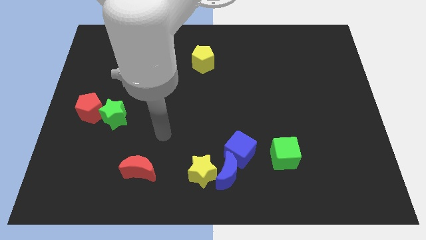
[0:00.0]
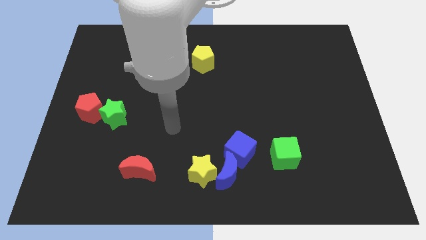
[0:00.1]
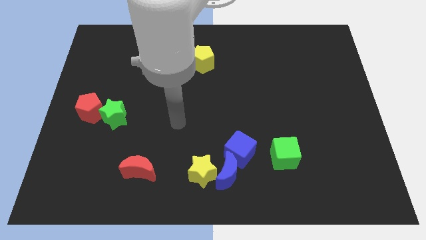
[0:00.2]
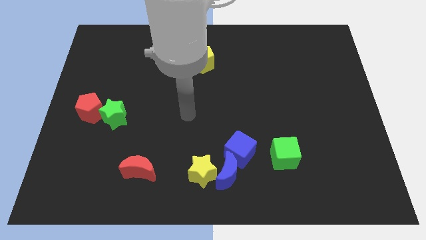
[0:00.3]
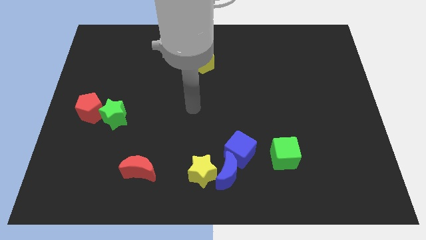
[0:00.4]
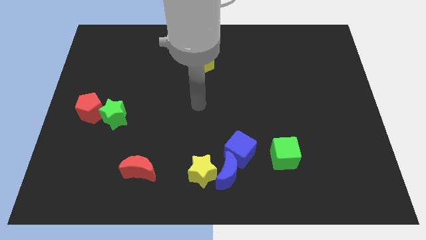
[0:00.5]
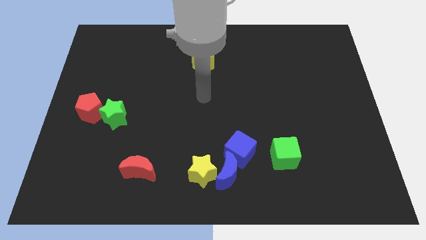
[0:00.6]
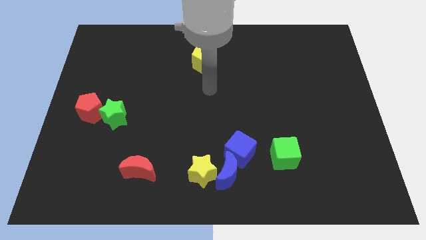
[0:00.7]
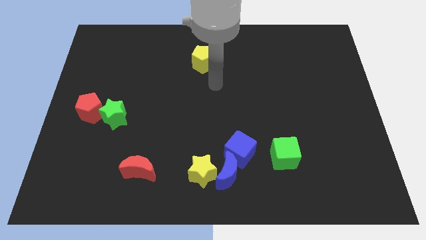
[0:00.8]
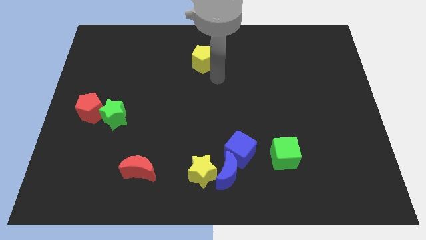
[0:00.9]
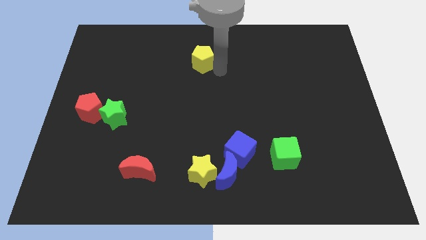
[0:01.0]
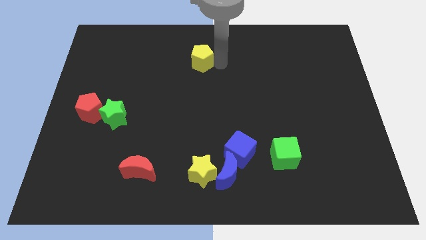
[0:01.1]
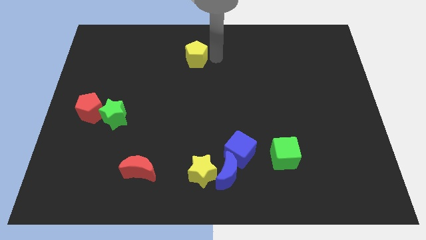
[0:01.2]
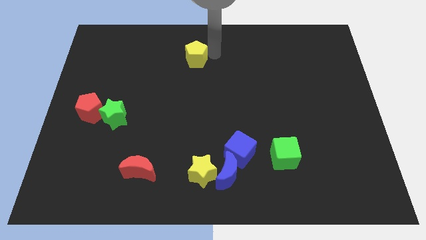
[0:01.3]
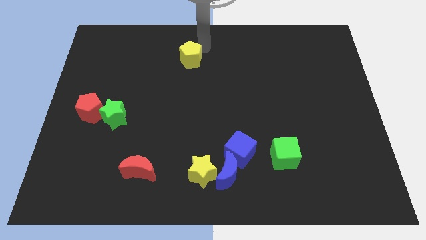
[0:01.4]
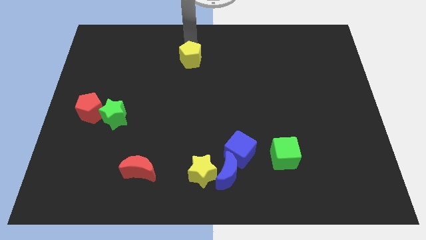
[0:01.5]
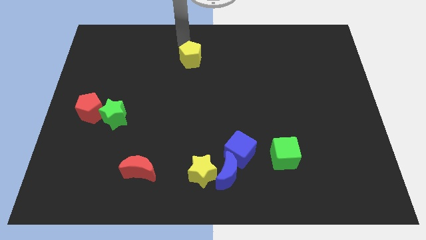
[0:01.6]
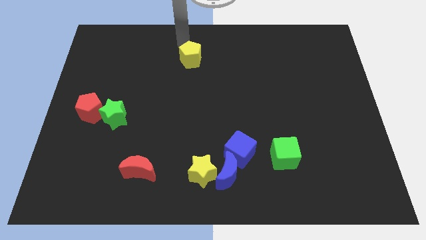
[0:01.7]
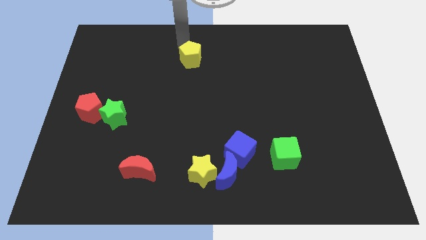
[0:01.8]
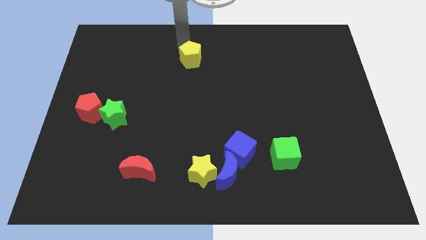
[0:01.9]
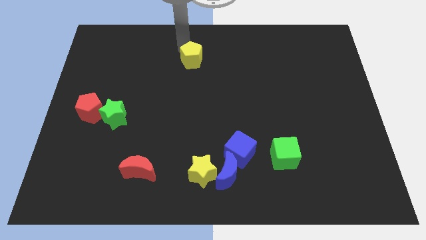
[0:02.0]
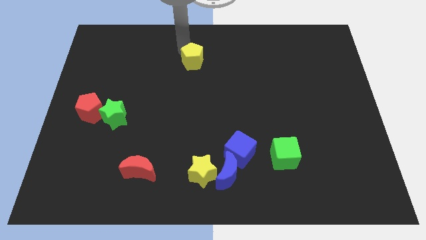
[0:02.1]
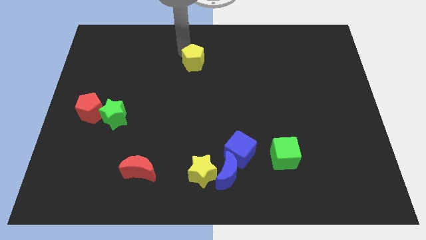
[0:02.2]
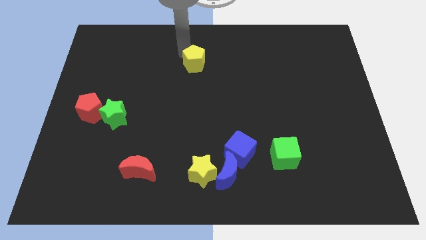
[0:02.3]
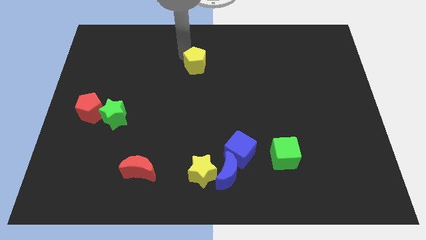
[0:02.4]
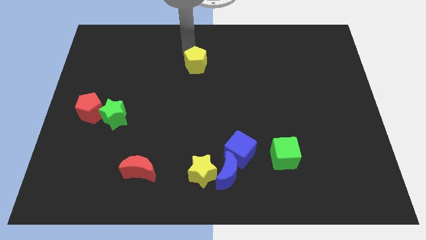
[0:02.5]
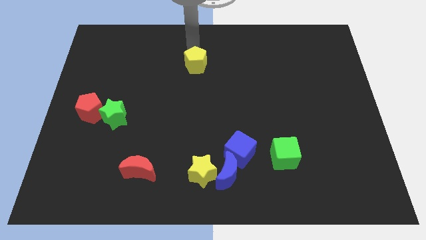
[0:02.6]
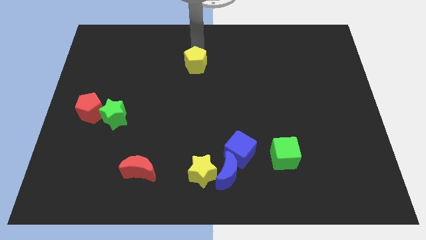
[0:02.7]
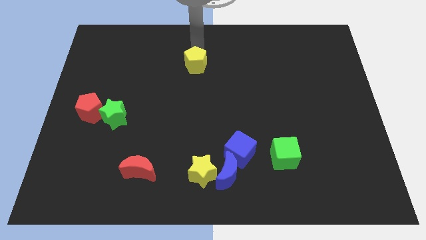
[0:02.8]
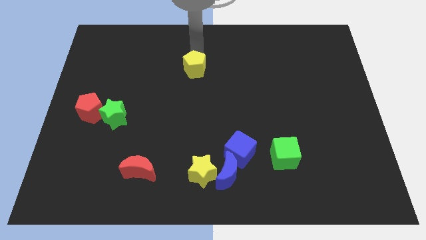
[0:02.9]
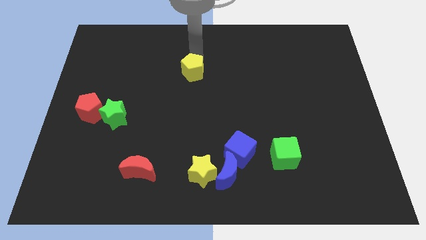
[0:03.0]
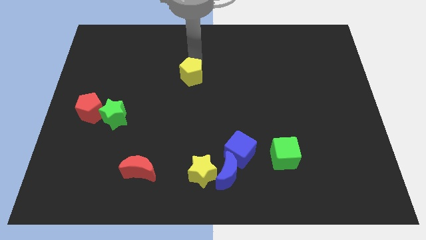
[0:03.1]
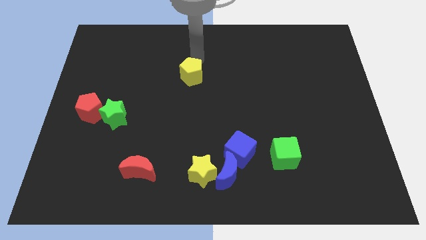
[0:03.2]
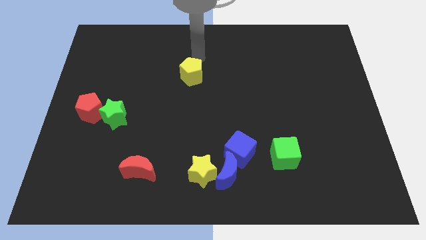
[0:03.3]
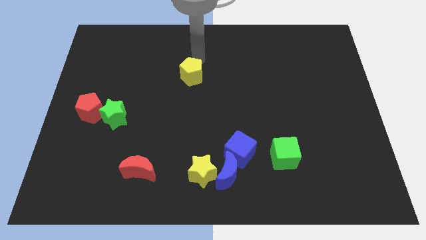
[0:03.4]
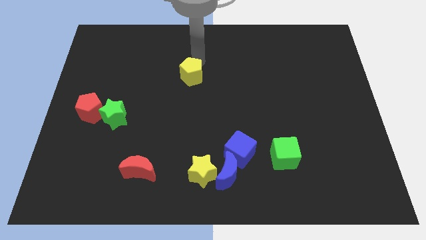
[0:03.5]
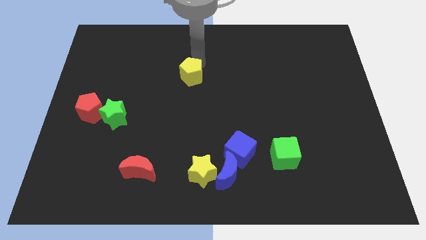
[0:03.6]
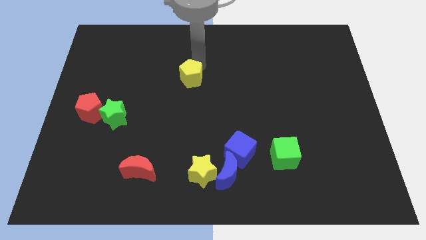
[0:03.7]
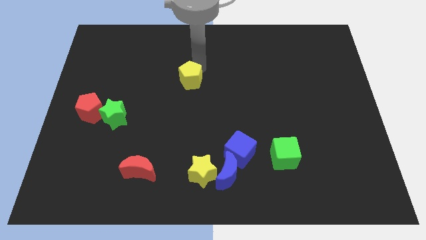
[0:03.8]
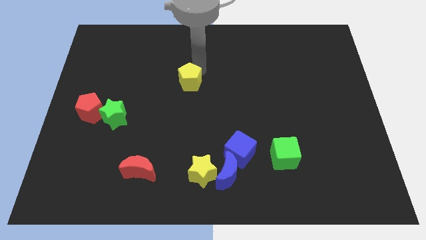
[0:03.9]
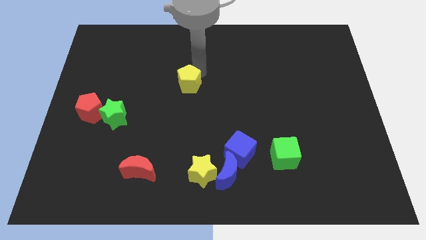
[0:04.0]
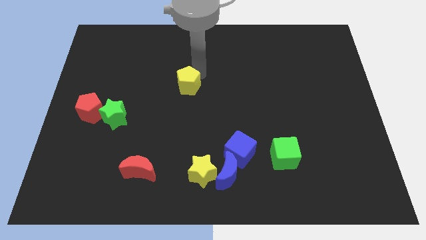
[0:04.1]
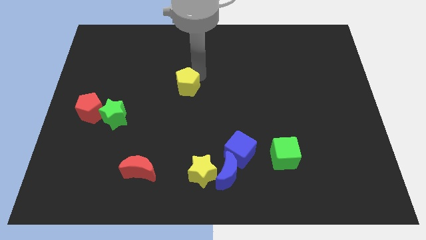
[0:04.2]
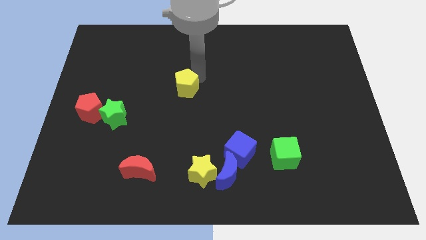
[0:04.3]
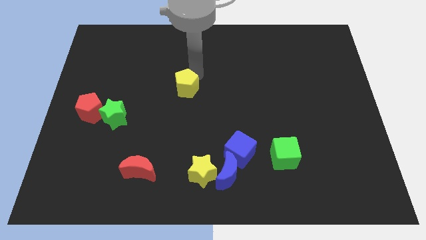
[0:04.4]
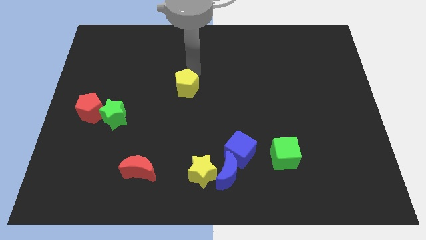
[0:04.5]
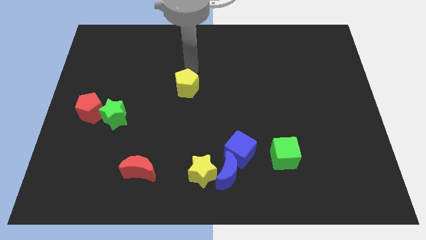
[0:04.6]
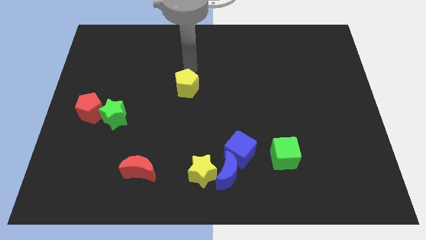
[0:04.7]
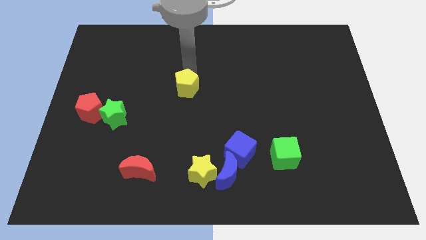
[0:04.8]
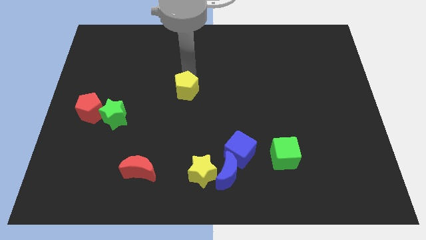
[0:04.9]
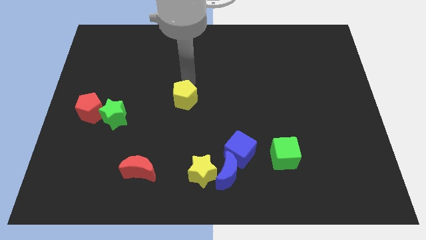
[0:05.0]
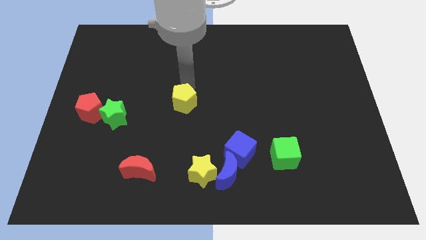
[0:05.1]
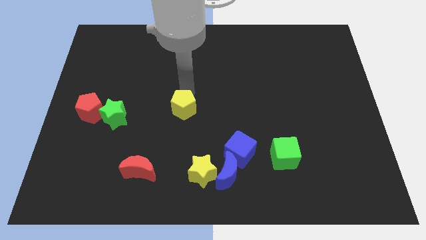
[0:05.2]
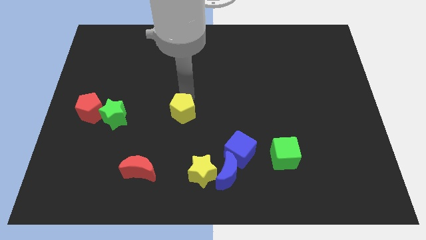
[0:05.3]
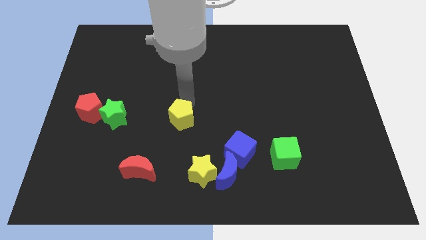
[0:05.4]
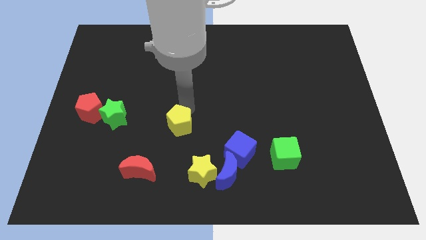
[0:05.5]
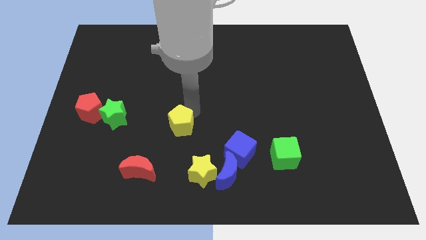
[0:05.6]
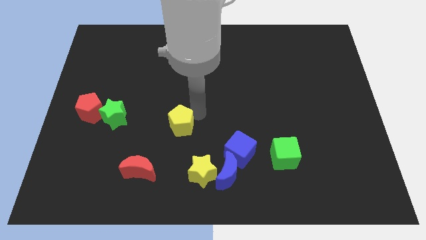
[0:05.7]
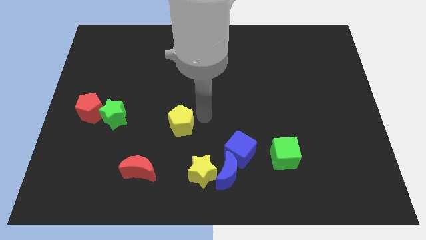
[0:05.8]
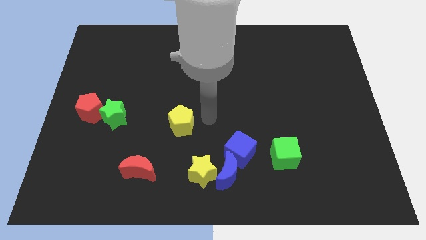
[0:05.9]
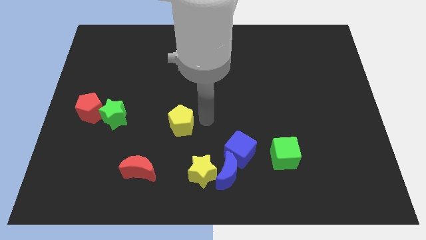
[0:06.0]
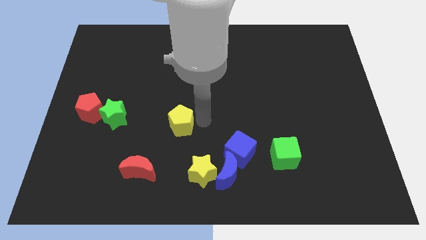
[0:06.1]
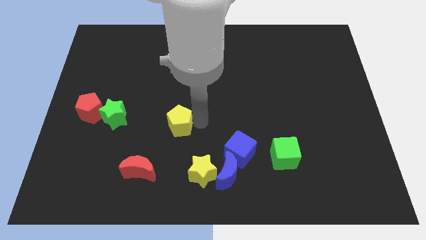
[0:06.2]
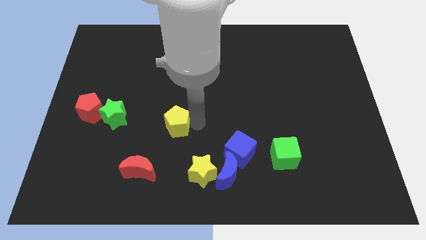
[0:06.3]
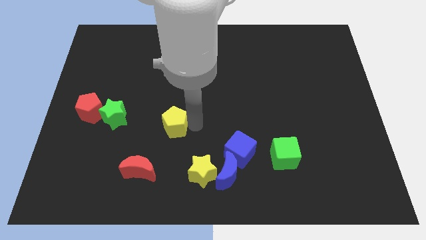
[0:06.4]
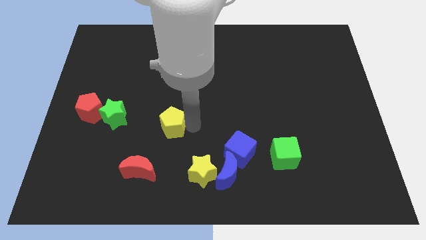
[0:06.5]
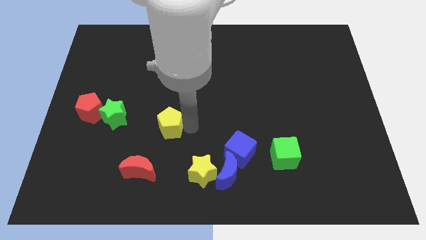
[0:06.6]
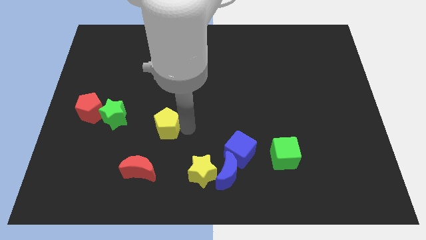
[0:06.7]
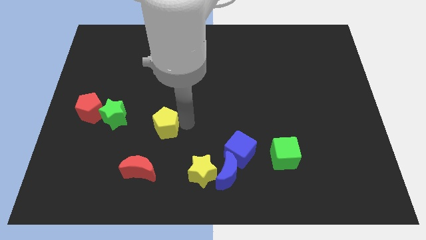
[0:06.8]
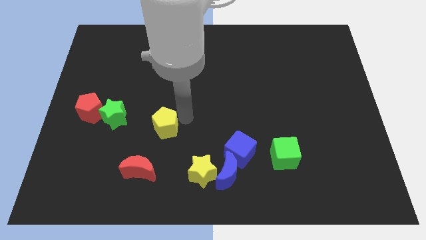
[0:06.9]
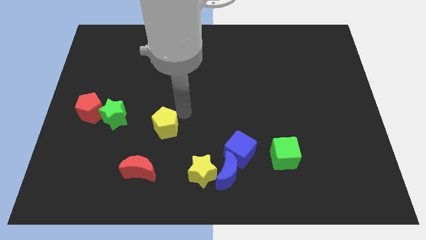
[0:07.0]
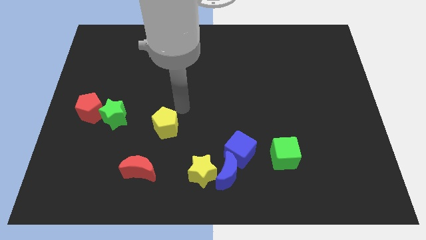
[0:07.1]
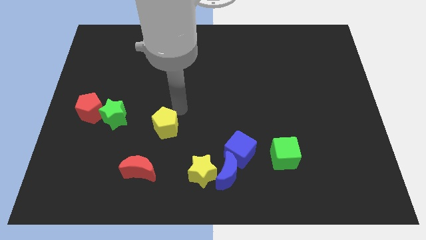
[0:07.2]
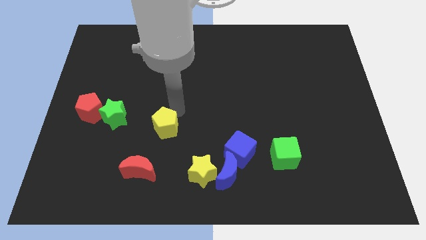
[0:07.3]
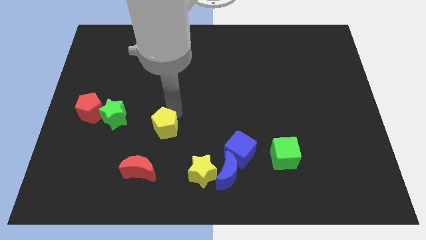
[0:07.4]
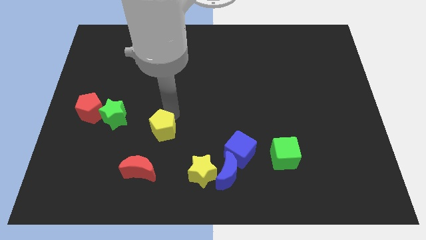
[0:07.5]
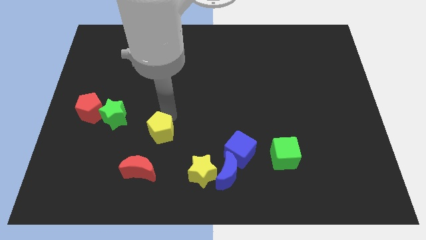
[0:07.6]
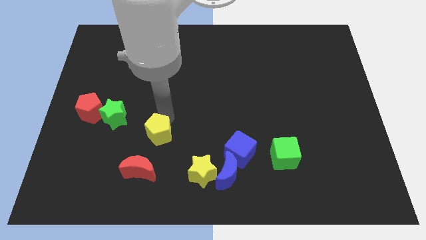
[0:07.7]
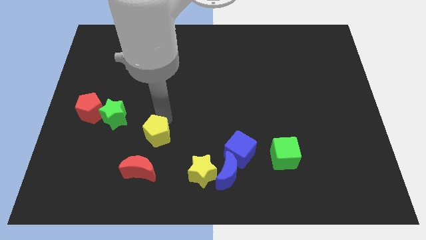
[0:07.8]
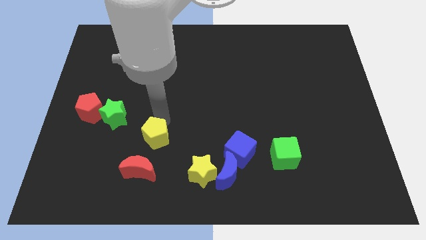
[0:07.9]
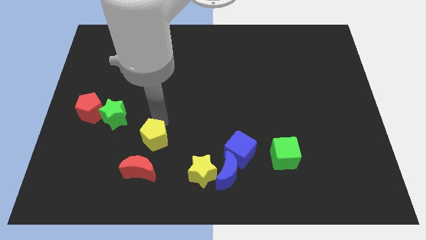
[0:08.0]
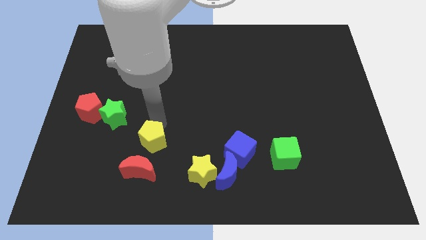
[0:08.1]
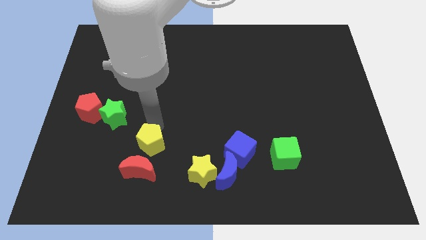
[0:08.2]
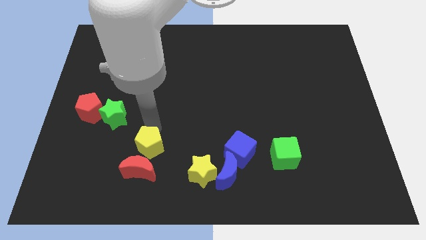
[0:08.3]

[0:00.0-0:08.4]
put the yellow pentagon close to the red moon
